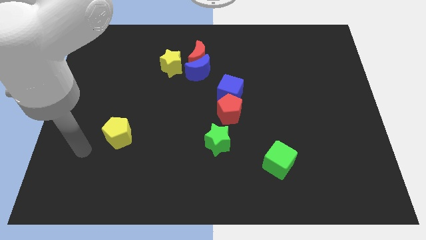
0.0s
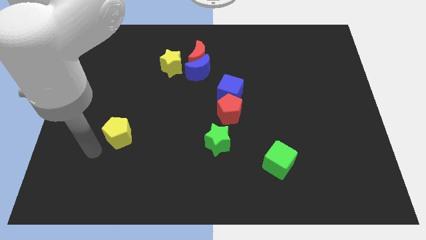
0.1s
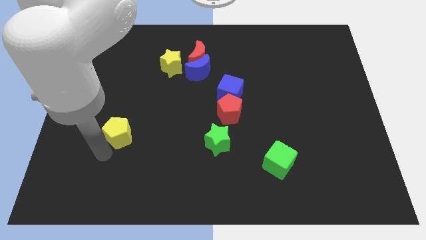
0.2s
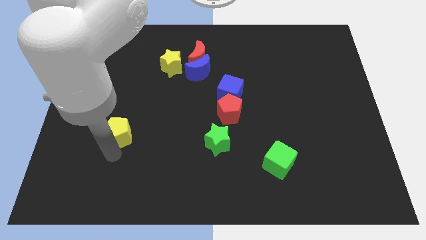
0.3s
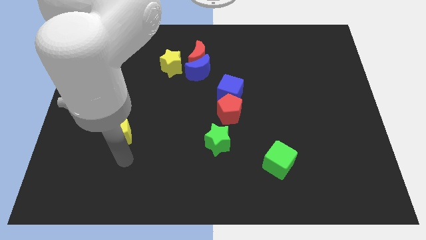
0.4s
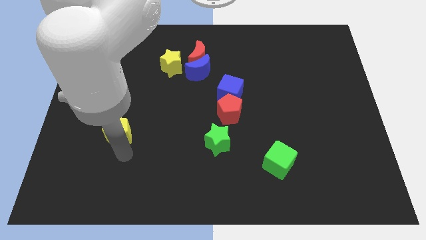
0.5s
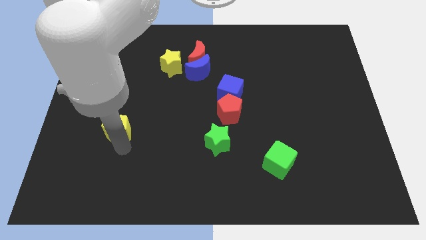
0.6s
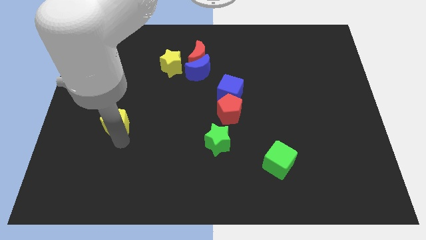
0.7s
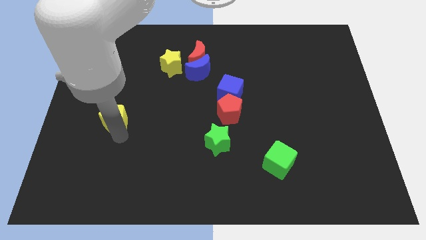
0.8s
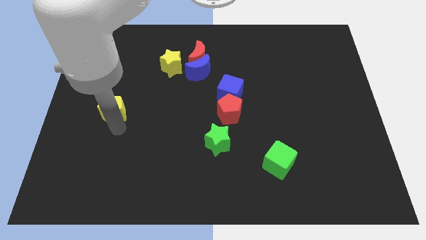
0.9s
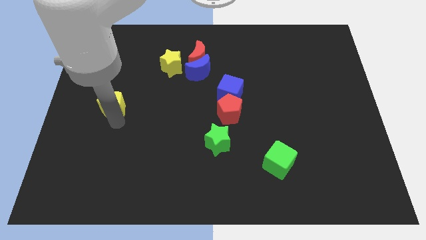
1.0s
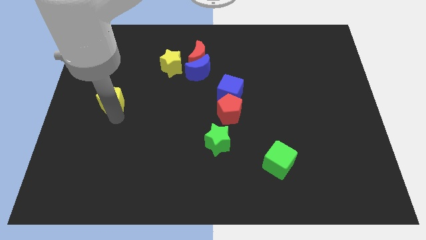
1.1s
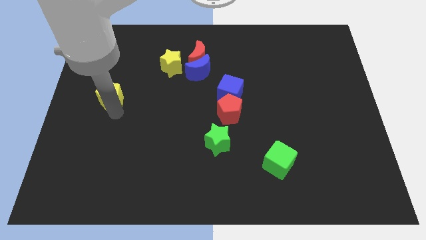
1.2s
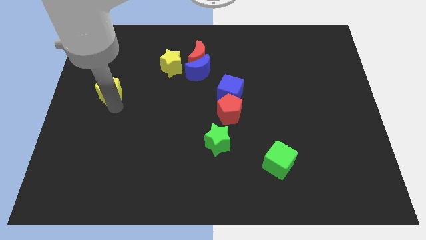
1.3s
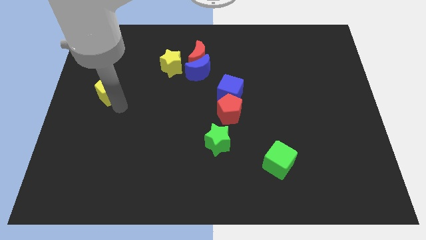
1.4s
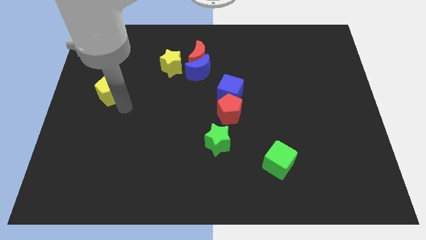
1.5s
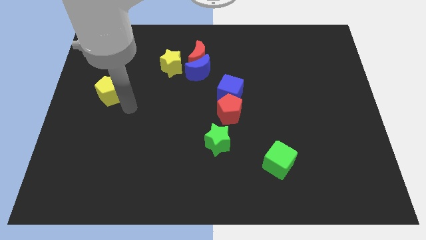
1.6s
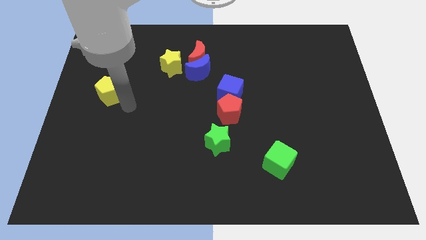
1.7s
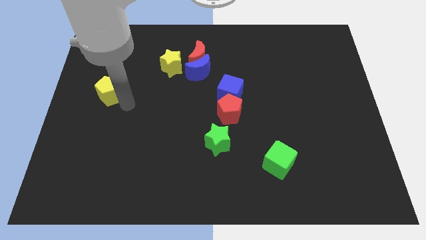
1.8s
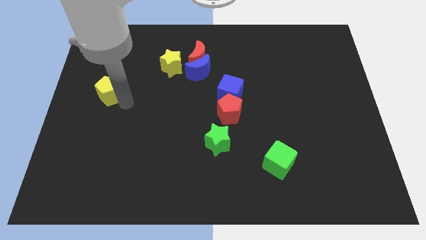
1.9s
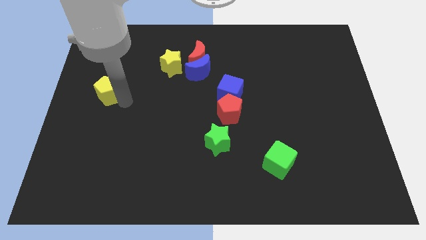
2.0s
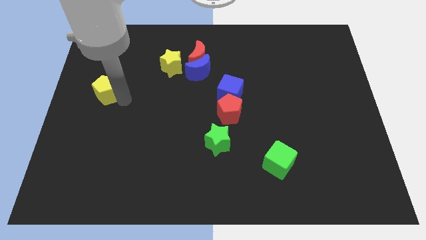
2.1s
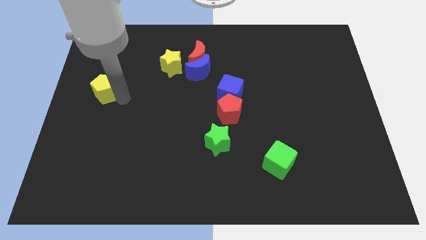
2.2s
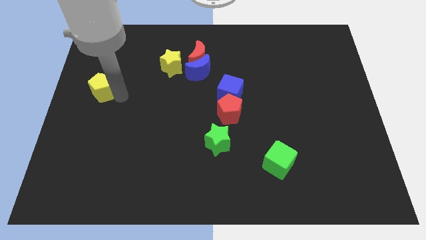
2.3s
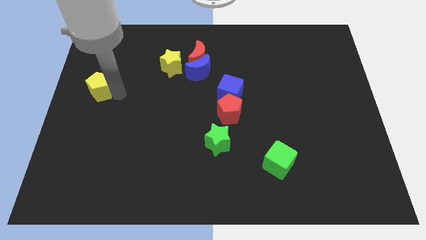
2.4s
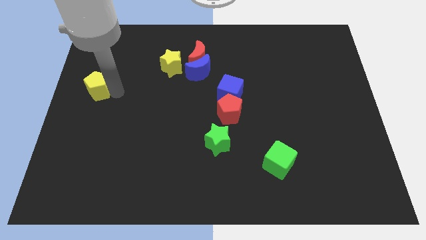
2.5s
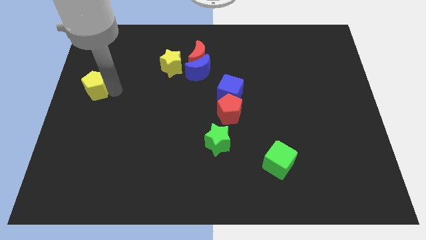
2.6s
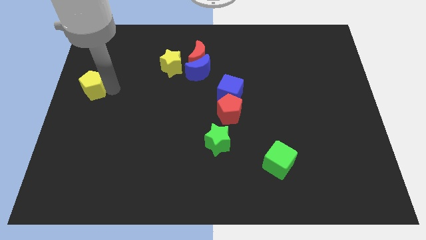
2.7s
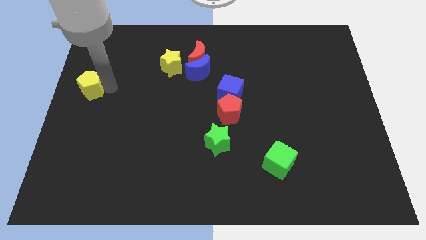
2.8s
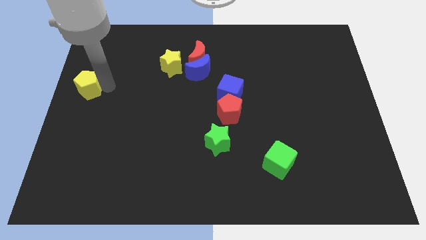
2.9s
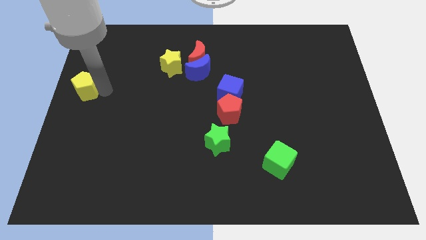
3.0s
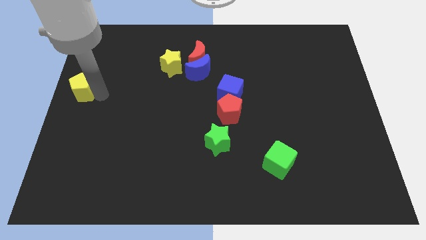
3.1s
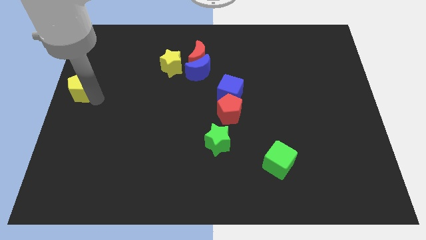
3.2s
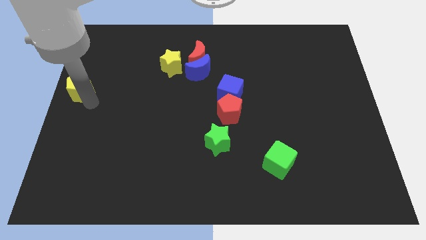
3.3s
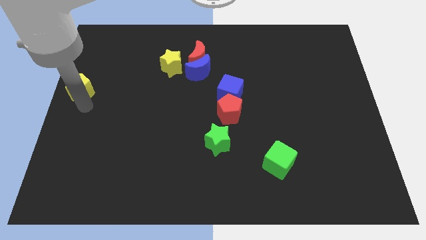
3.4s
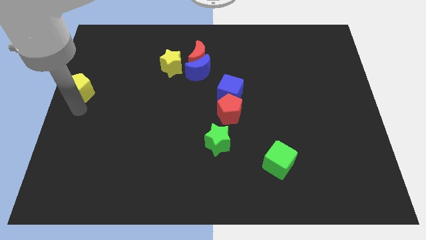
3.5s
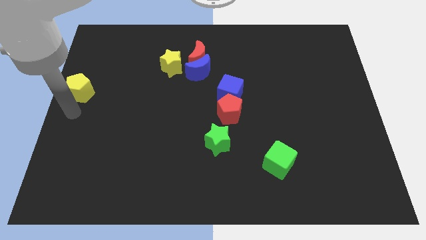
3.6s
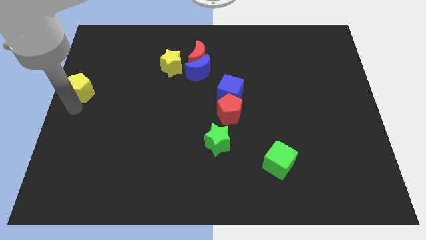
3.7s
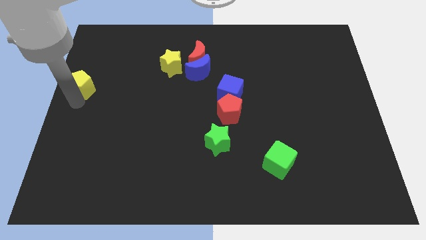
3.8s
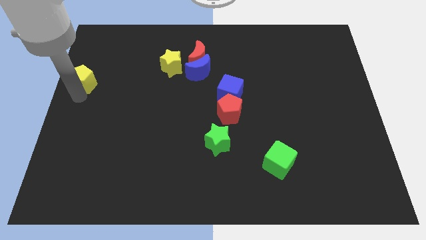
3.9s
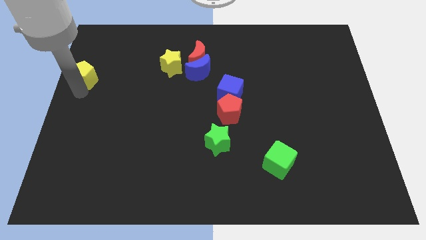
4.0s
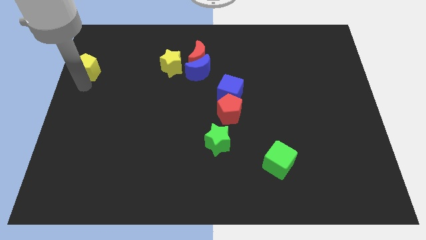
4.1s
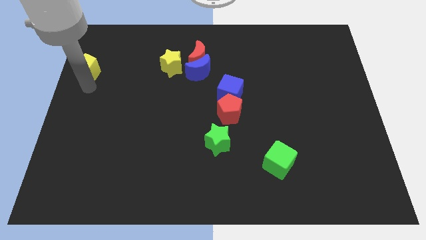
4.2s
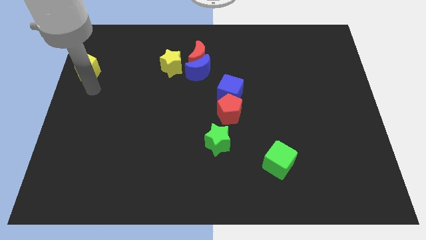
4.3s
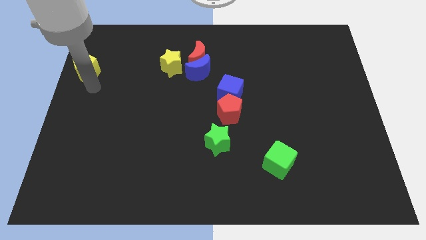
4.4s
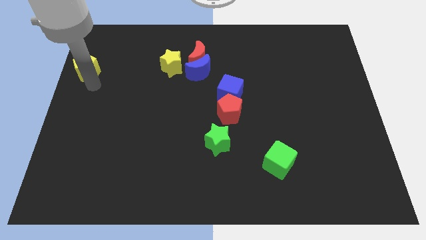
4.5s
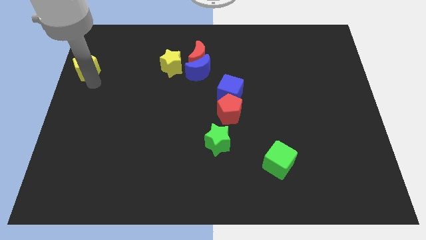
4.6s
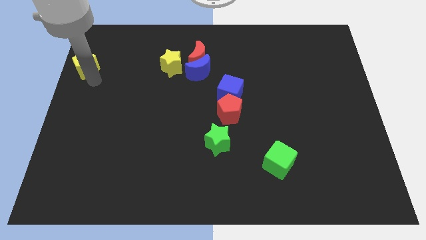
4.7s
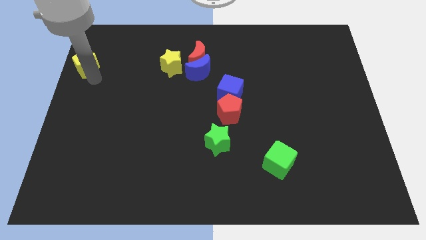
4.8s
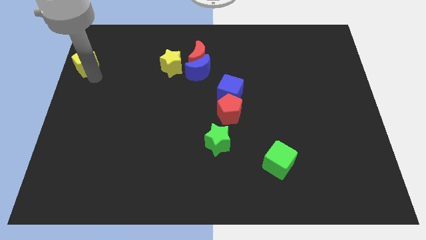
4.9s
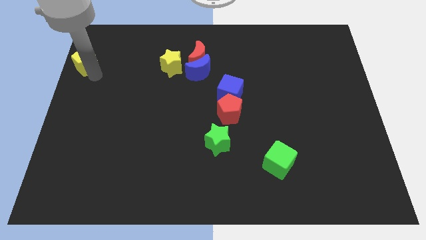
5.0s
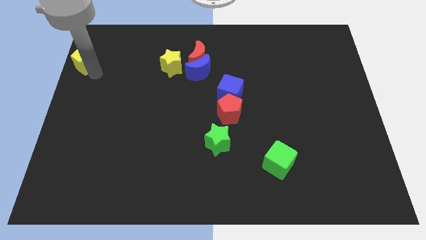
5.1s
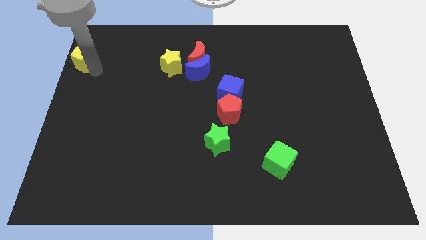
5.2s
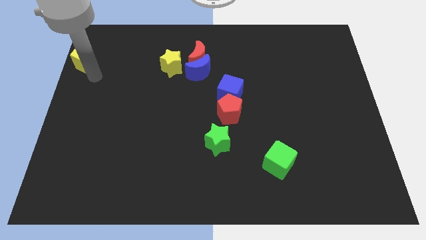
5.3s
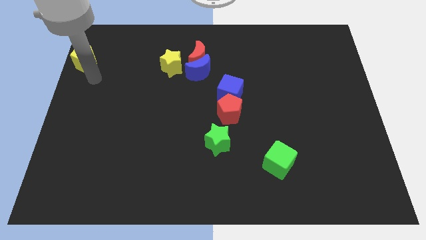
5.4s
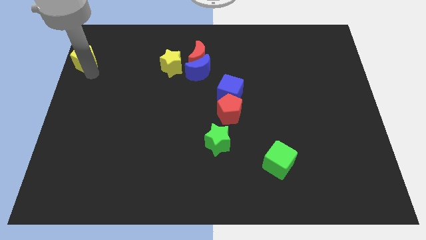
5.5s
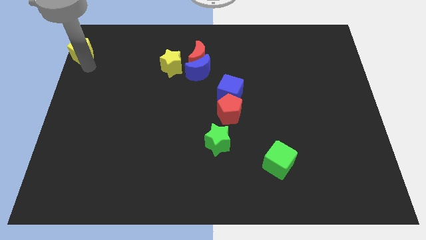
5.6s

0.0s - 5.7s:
put the yellow pentagon to the upper left corner

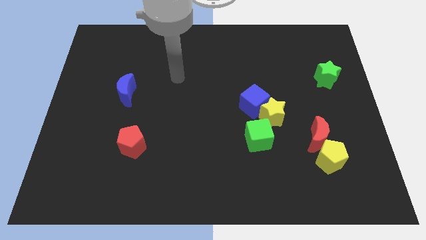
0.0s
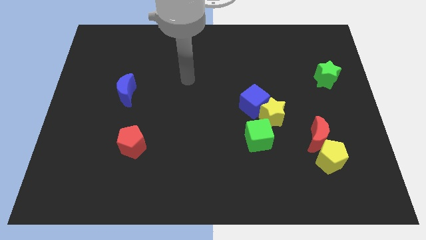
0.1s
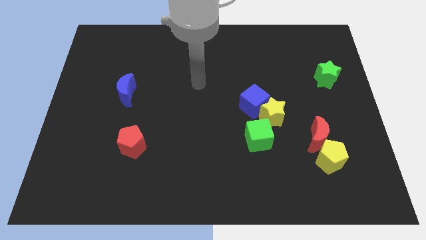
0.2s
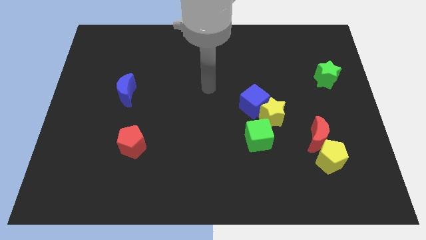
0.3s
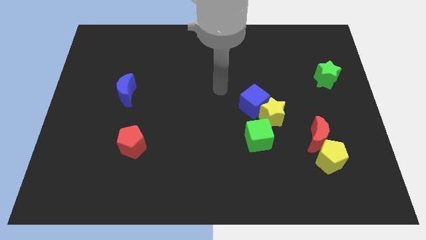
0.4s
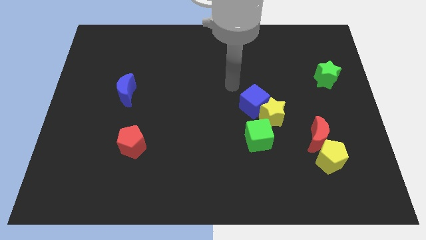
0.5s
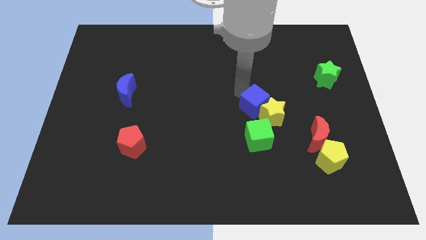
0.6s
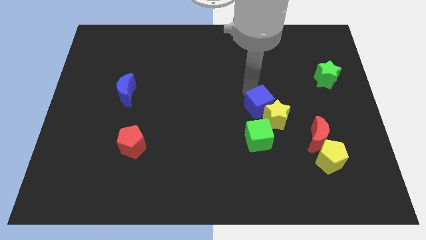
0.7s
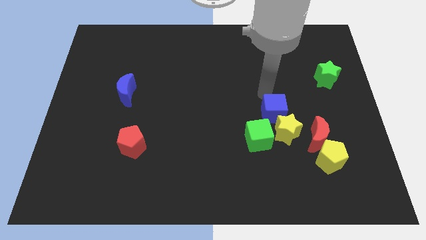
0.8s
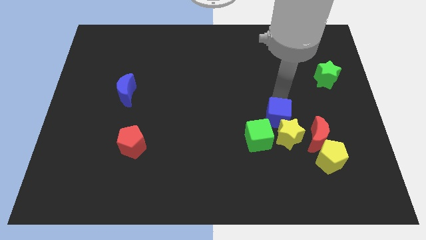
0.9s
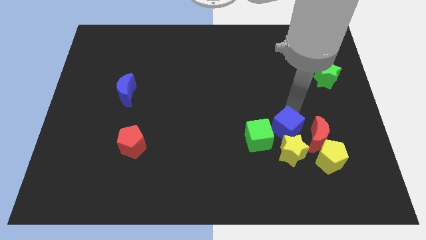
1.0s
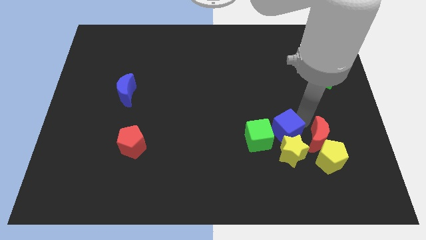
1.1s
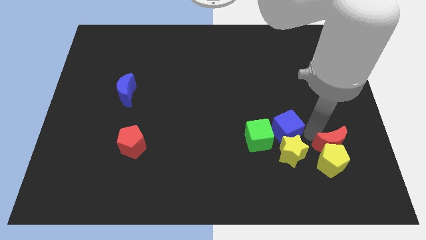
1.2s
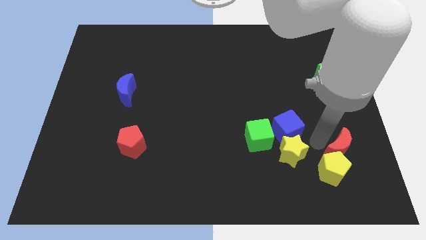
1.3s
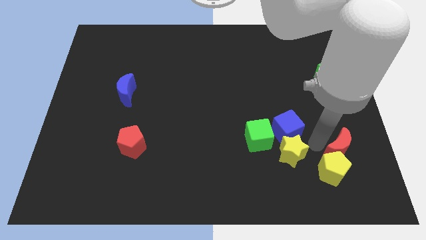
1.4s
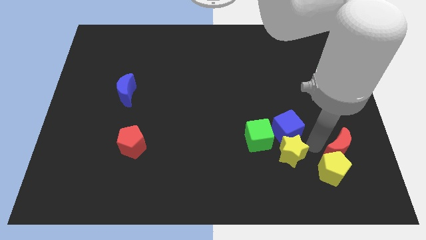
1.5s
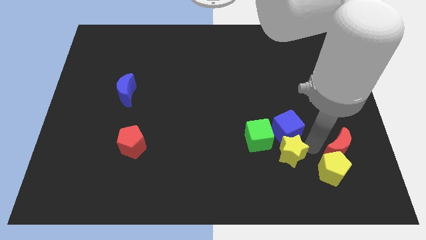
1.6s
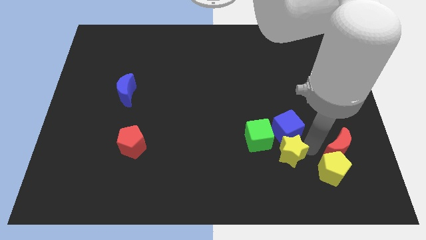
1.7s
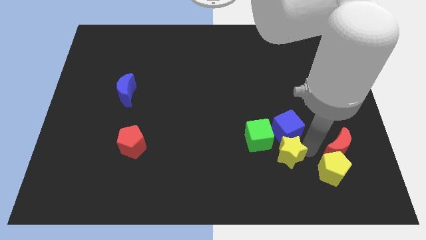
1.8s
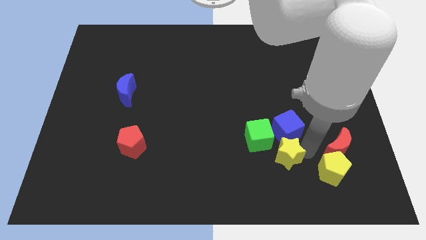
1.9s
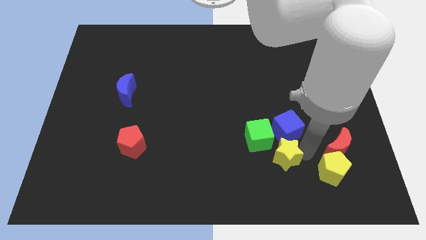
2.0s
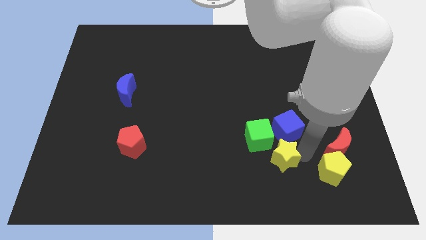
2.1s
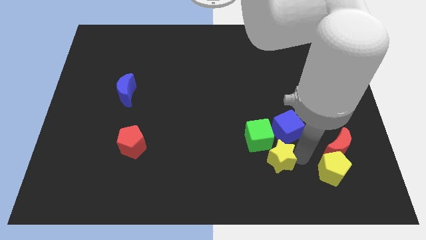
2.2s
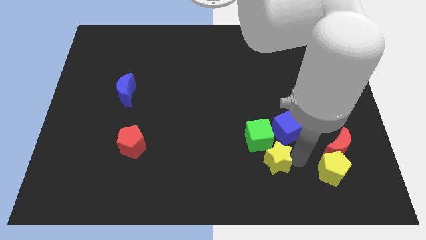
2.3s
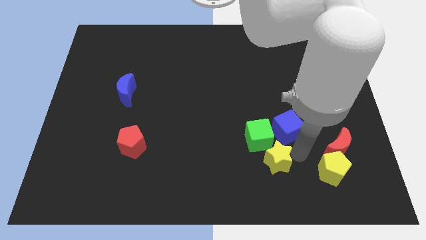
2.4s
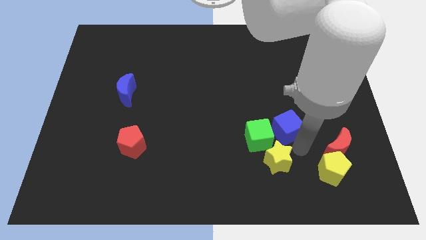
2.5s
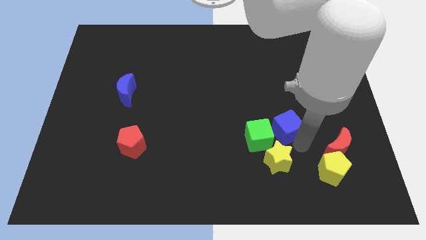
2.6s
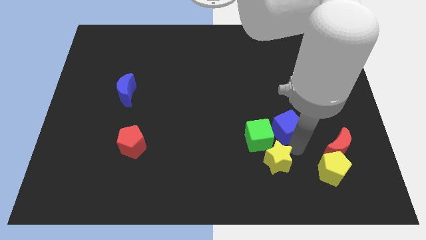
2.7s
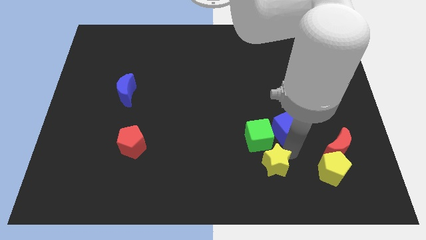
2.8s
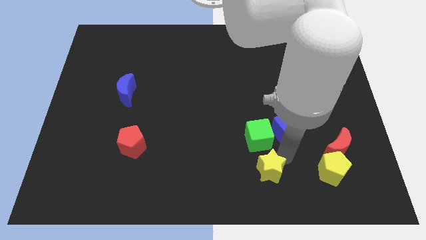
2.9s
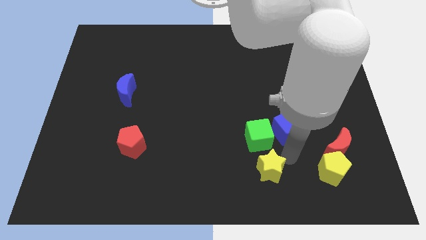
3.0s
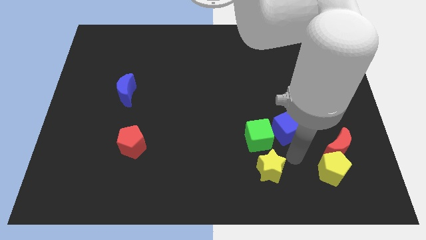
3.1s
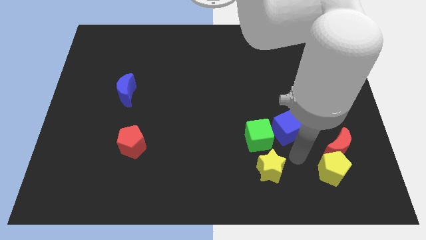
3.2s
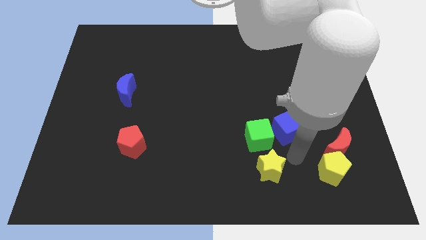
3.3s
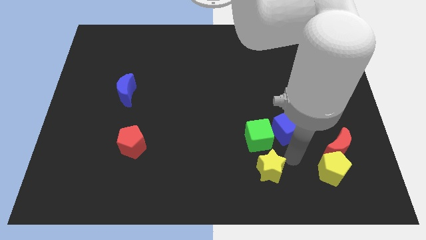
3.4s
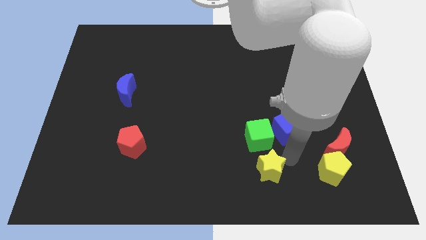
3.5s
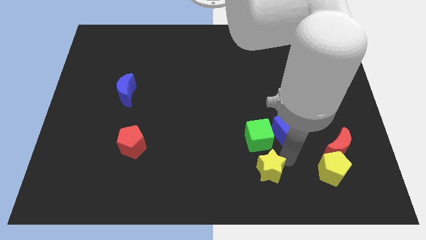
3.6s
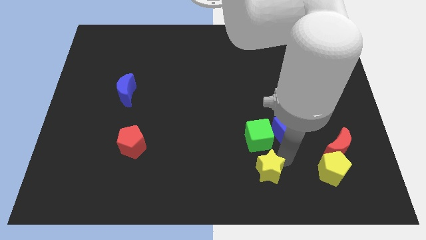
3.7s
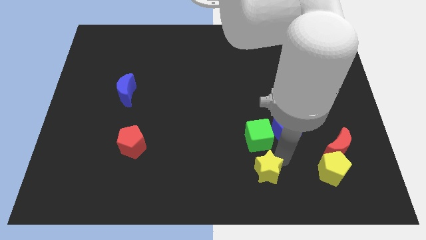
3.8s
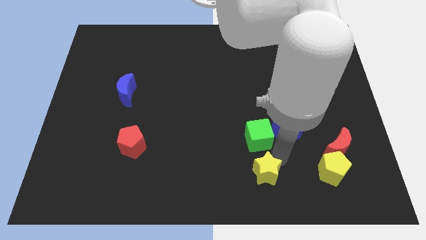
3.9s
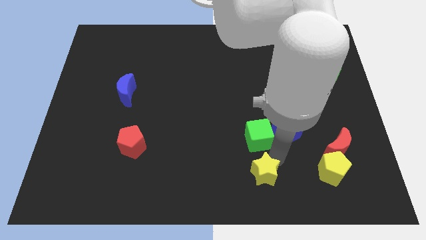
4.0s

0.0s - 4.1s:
put the yellow star to the bottom side
